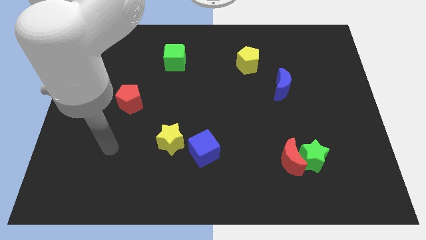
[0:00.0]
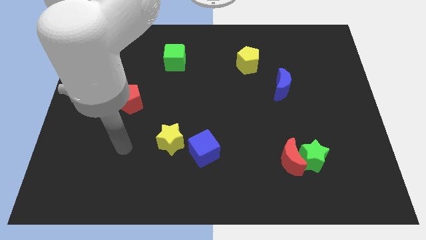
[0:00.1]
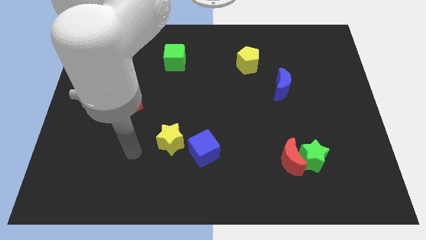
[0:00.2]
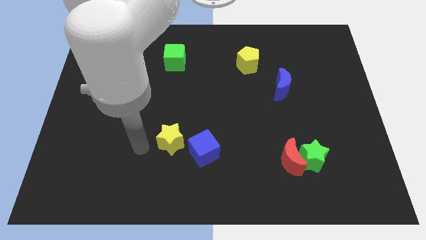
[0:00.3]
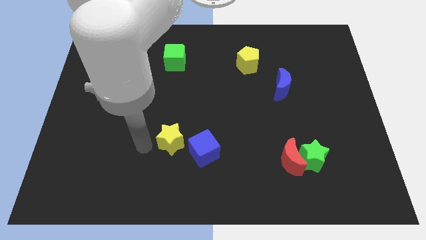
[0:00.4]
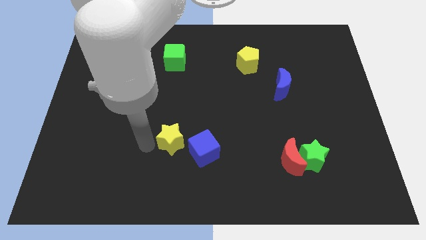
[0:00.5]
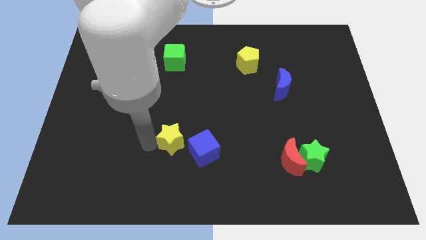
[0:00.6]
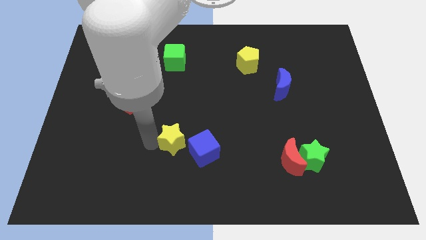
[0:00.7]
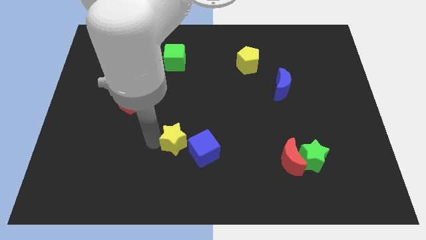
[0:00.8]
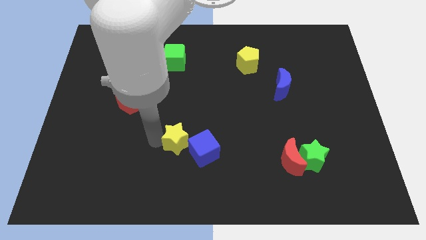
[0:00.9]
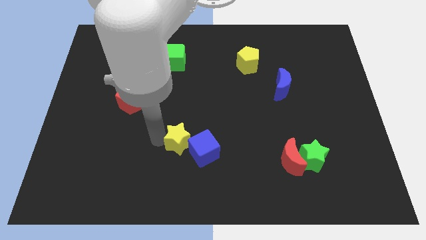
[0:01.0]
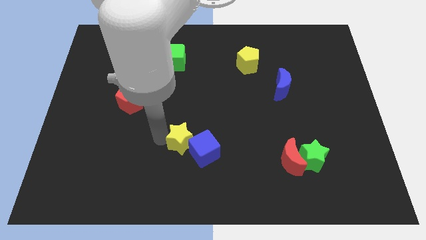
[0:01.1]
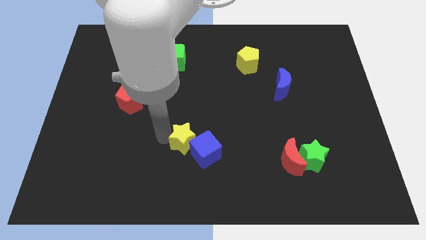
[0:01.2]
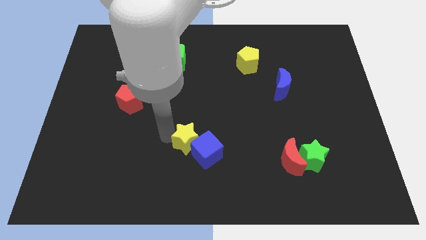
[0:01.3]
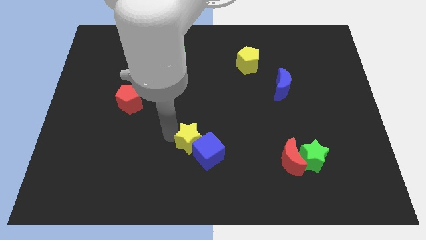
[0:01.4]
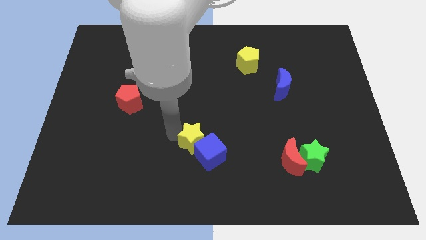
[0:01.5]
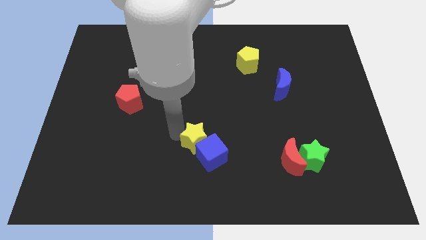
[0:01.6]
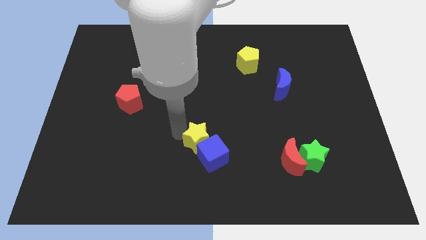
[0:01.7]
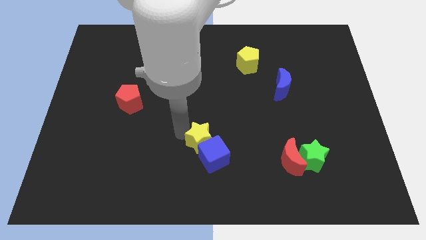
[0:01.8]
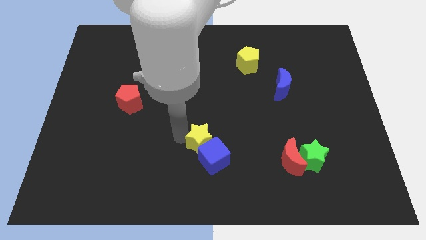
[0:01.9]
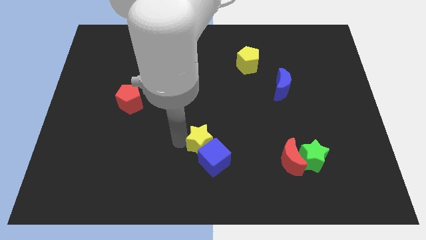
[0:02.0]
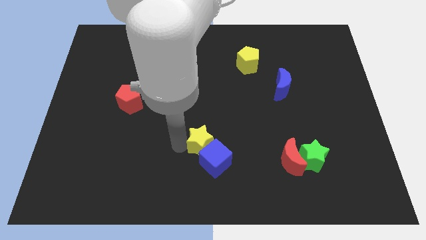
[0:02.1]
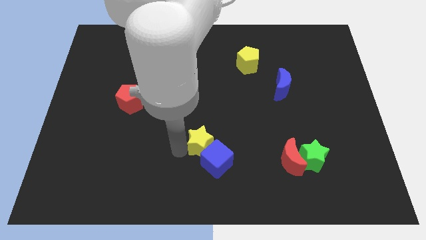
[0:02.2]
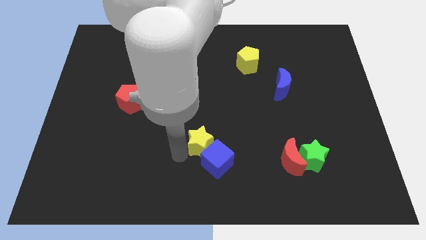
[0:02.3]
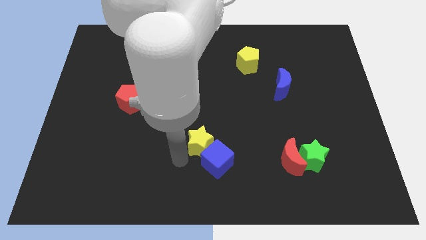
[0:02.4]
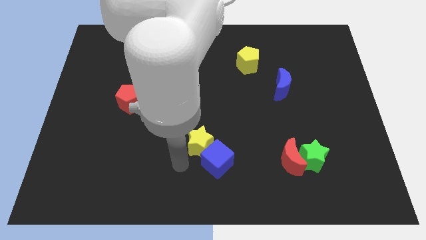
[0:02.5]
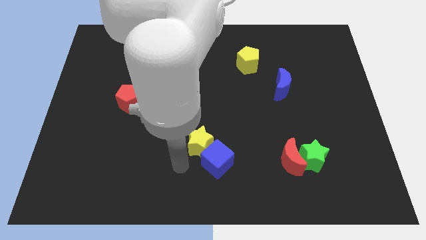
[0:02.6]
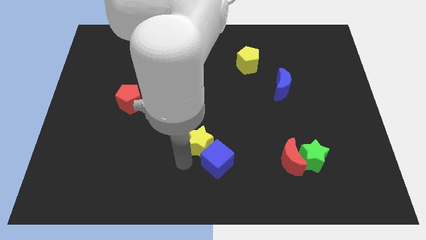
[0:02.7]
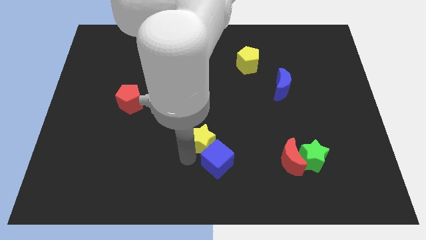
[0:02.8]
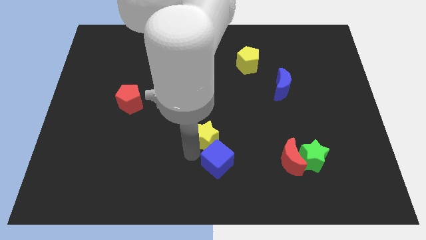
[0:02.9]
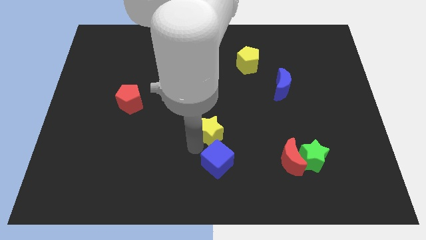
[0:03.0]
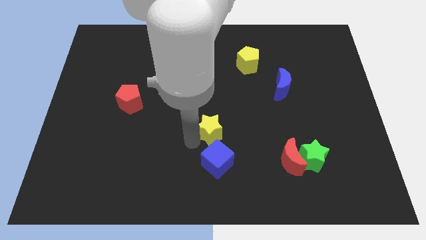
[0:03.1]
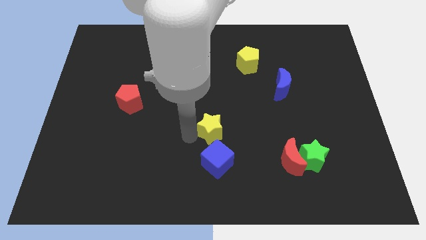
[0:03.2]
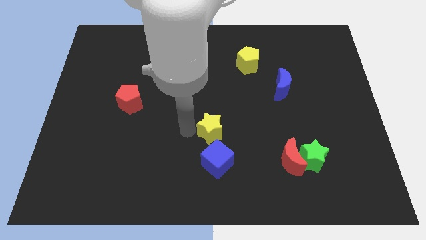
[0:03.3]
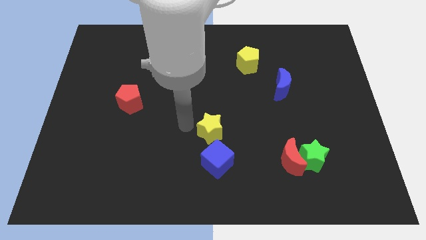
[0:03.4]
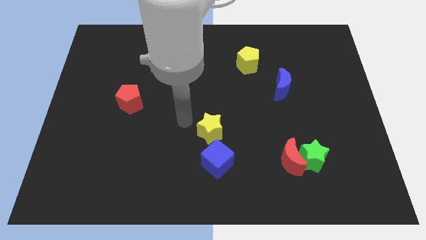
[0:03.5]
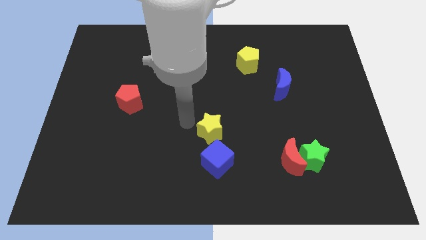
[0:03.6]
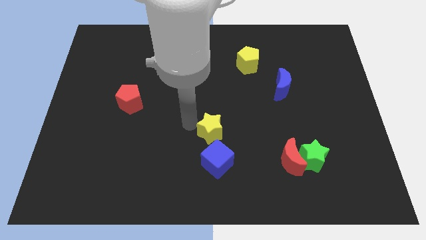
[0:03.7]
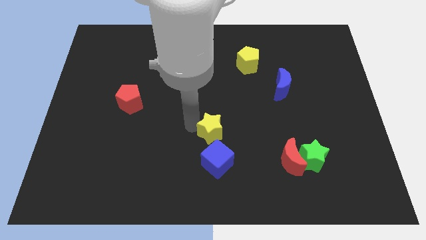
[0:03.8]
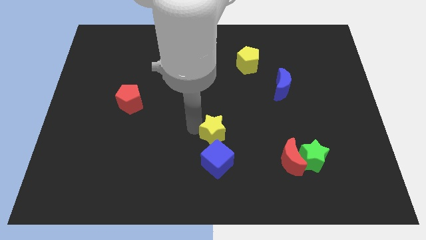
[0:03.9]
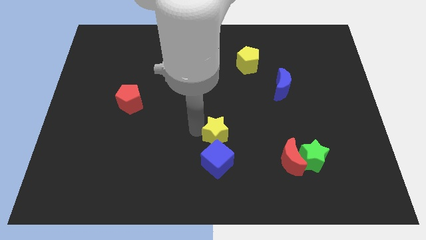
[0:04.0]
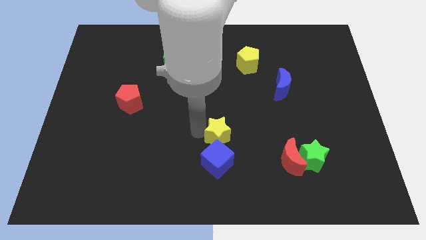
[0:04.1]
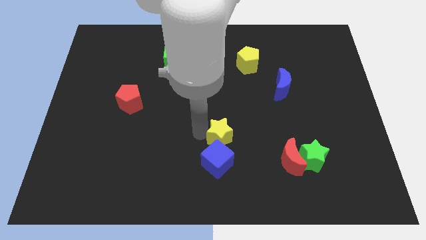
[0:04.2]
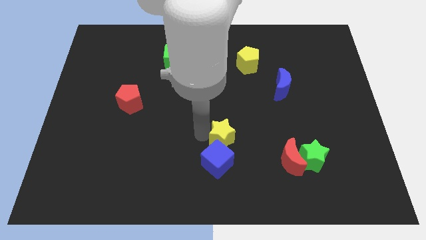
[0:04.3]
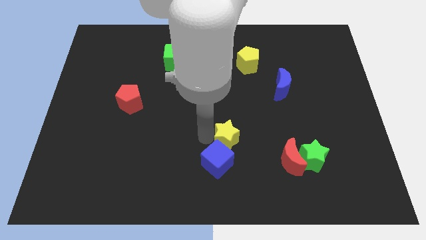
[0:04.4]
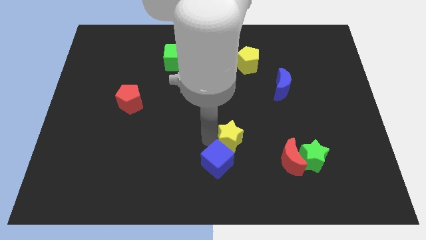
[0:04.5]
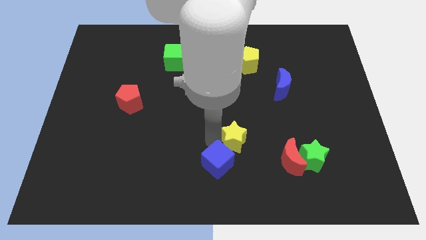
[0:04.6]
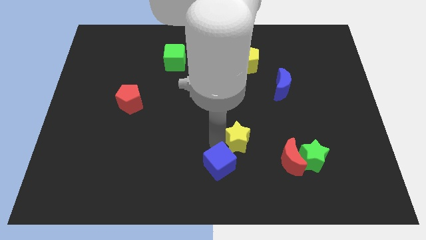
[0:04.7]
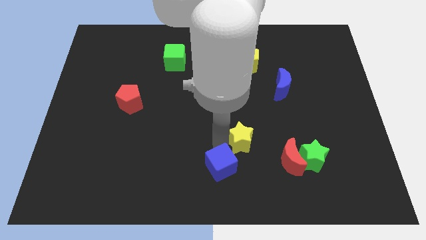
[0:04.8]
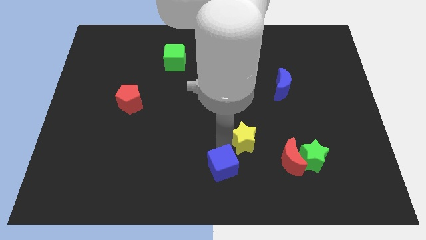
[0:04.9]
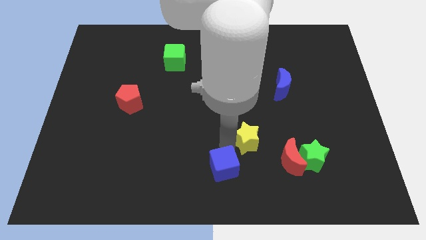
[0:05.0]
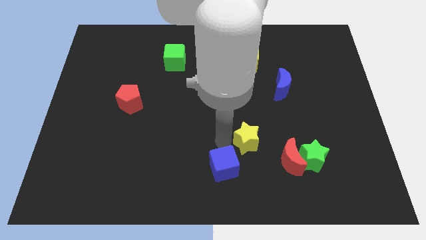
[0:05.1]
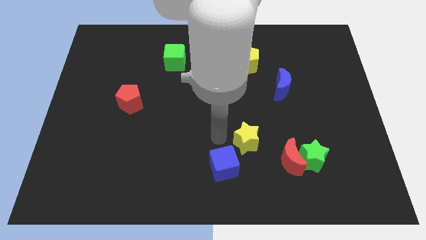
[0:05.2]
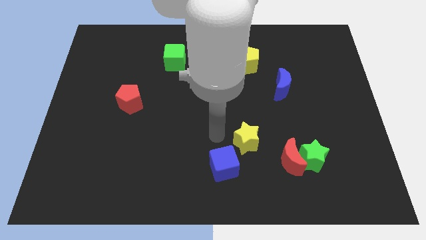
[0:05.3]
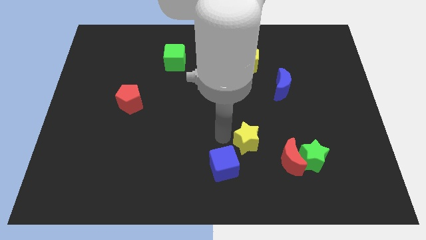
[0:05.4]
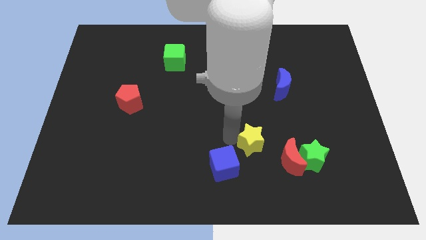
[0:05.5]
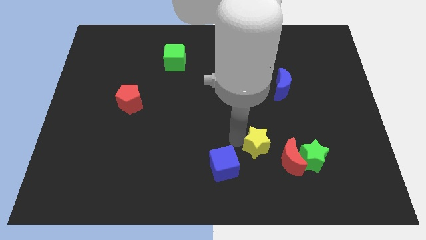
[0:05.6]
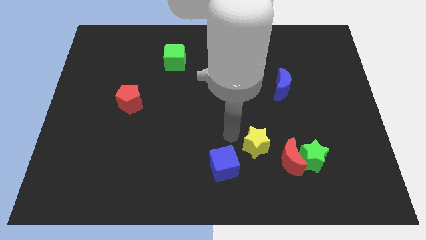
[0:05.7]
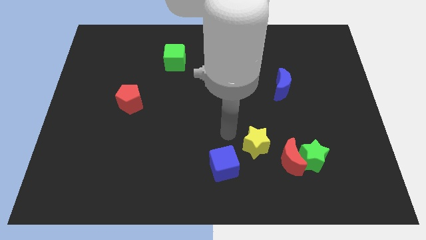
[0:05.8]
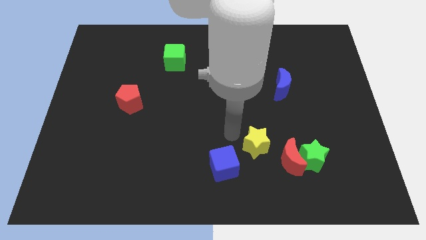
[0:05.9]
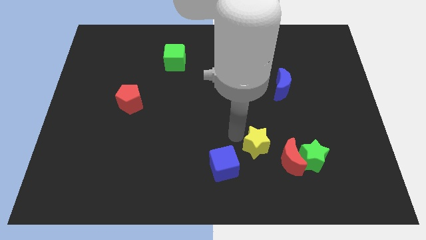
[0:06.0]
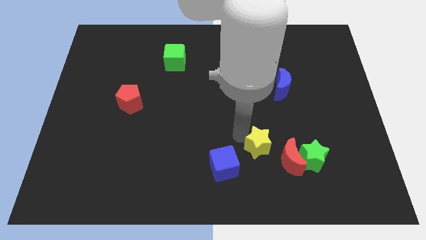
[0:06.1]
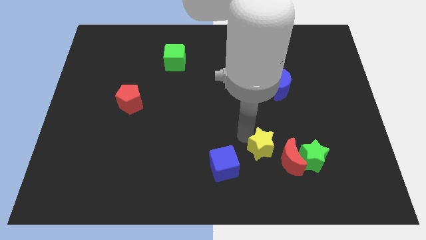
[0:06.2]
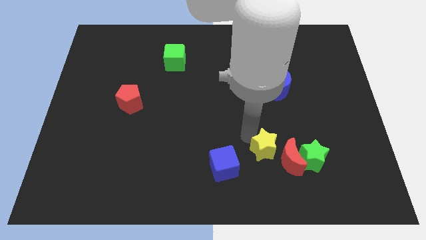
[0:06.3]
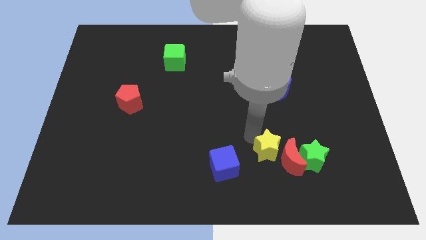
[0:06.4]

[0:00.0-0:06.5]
move the yellow star to the red moon

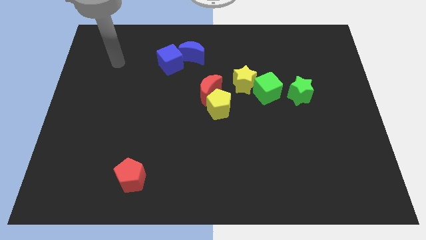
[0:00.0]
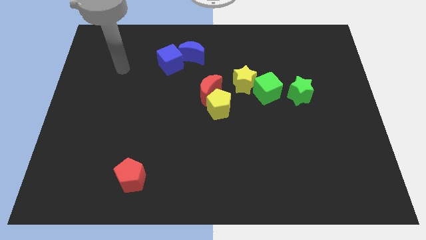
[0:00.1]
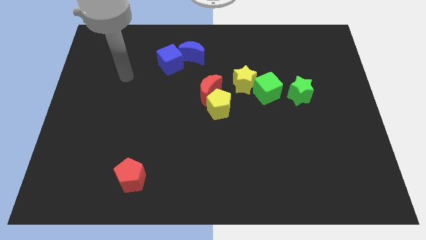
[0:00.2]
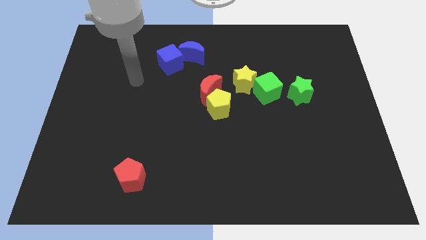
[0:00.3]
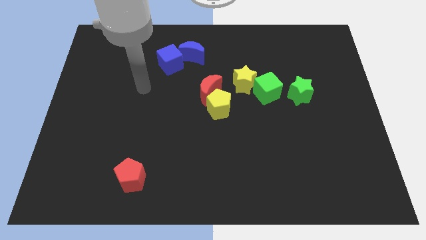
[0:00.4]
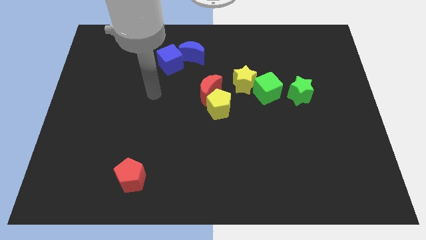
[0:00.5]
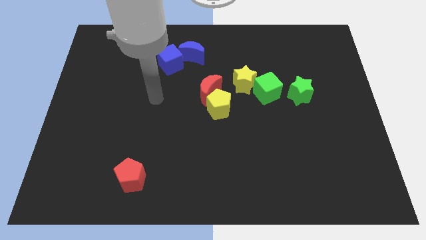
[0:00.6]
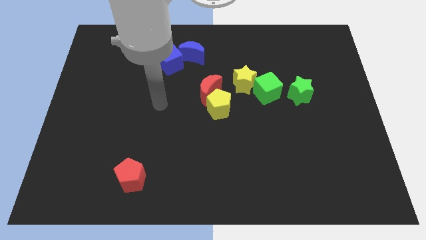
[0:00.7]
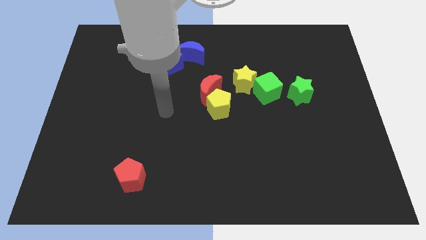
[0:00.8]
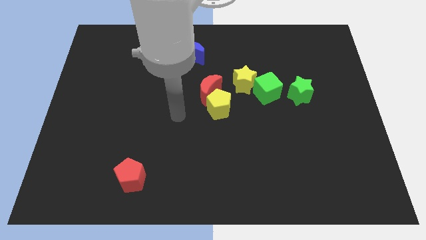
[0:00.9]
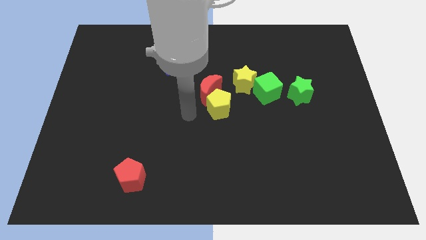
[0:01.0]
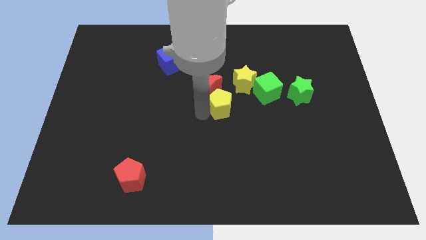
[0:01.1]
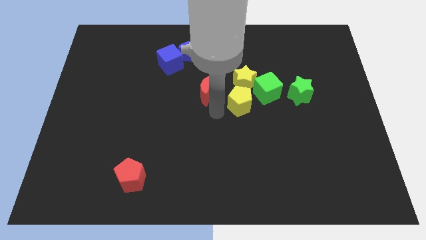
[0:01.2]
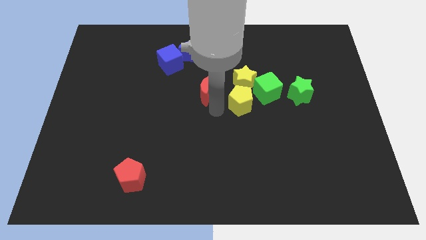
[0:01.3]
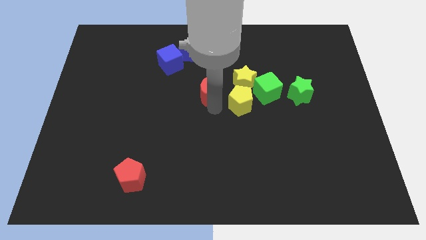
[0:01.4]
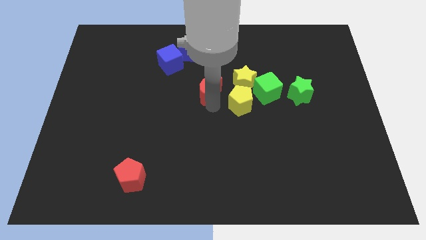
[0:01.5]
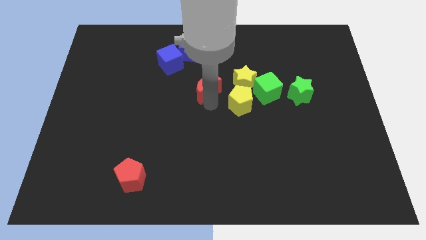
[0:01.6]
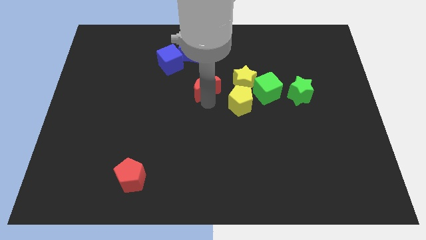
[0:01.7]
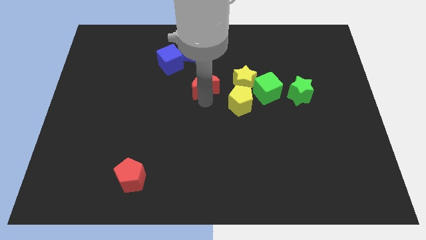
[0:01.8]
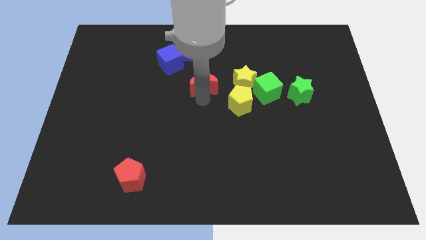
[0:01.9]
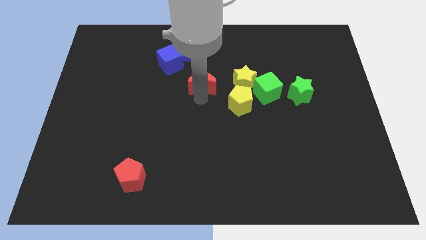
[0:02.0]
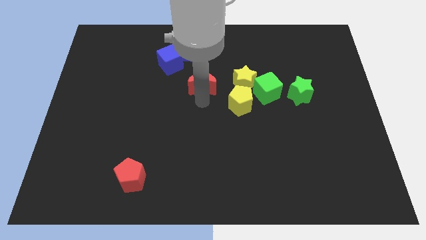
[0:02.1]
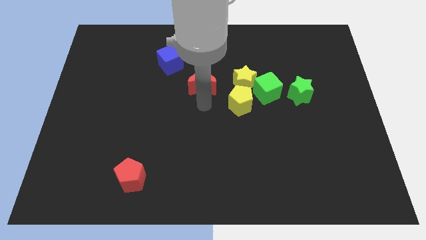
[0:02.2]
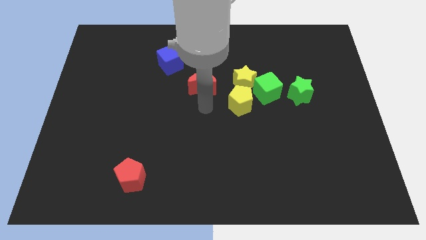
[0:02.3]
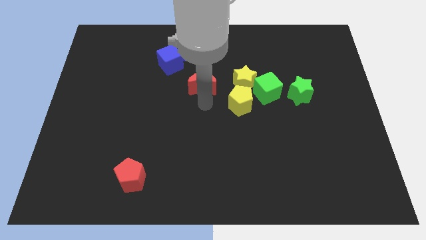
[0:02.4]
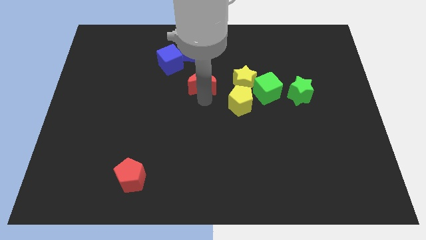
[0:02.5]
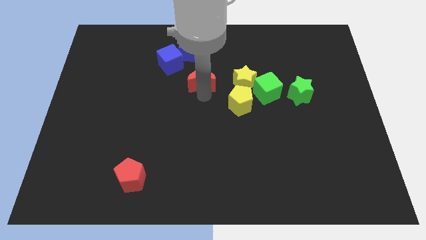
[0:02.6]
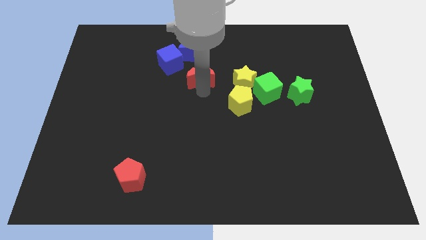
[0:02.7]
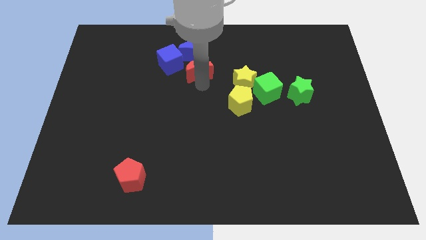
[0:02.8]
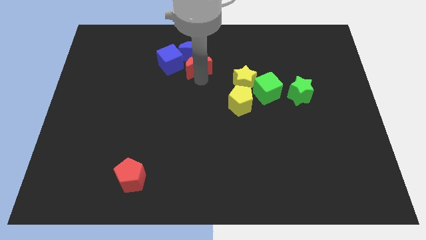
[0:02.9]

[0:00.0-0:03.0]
put the red moon close to the blue moon
